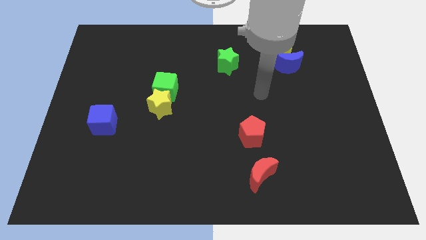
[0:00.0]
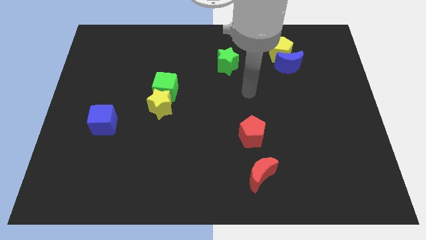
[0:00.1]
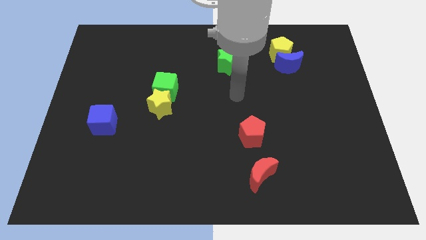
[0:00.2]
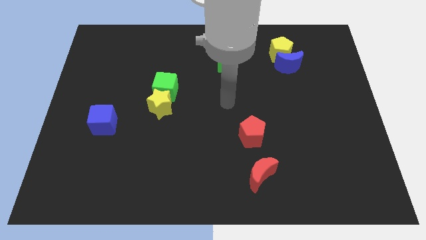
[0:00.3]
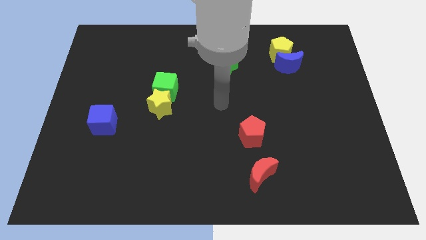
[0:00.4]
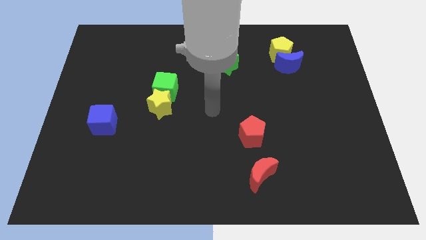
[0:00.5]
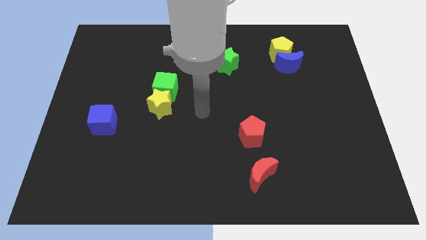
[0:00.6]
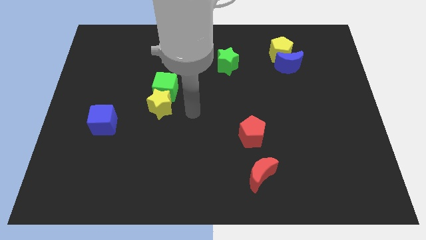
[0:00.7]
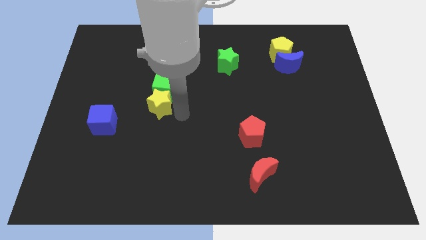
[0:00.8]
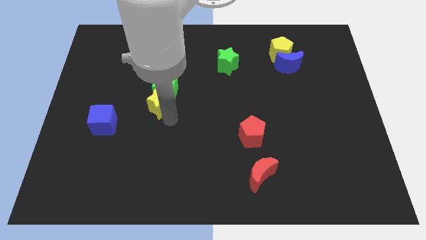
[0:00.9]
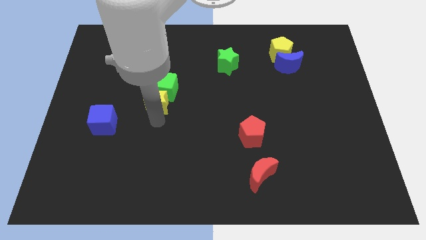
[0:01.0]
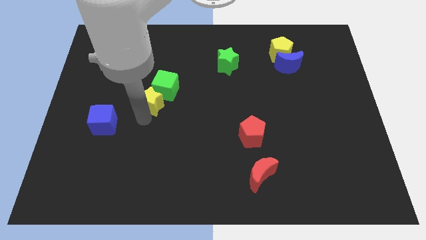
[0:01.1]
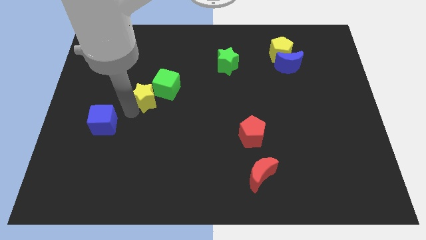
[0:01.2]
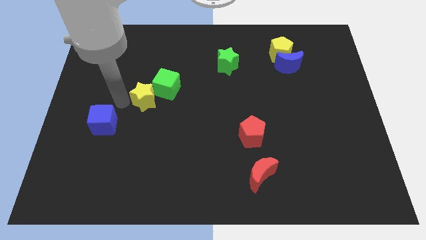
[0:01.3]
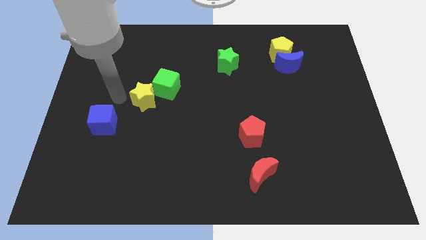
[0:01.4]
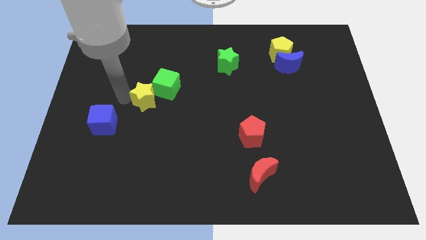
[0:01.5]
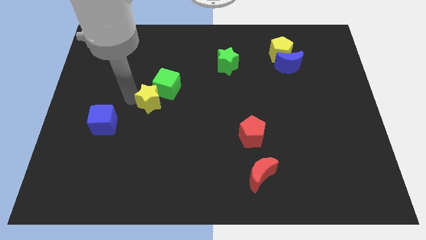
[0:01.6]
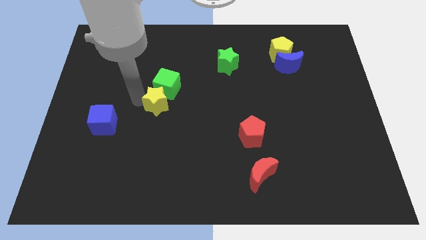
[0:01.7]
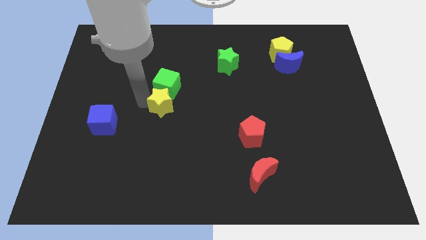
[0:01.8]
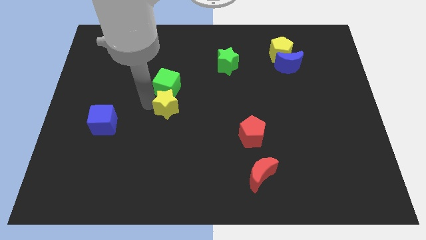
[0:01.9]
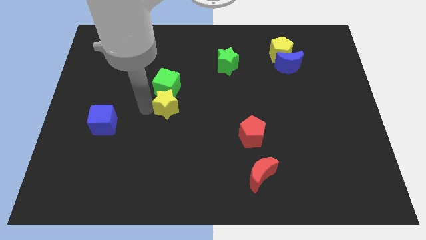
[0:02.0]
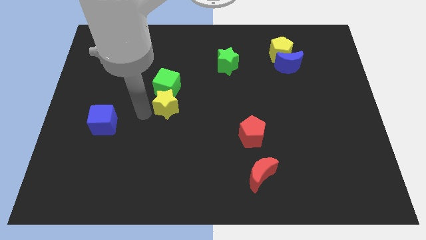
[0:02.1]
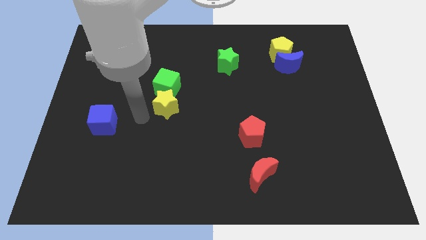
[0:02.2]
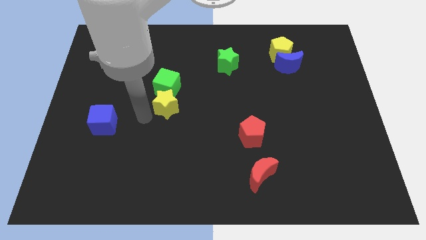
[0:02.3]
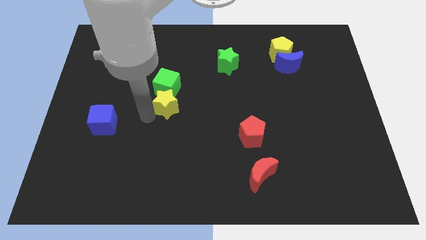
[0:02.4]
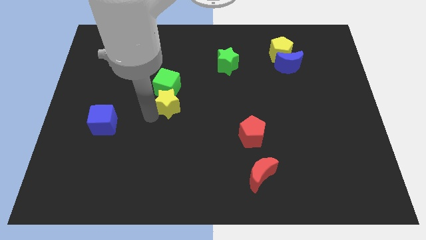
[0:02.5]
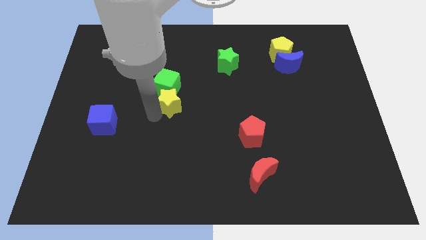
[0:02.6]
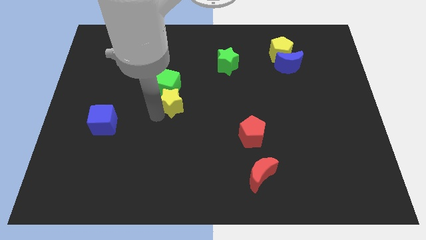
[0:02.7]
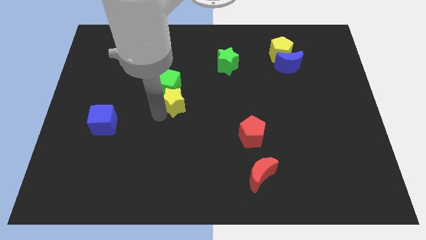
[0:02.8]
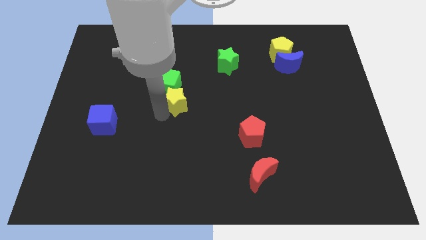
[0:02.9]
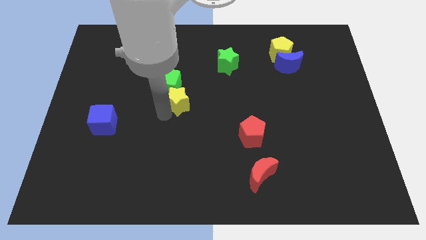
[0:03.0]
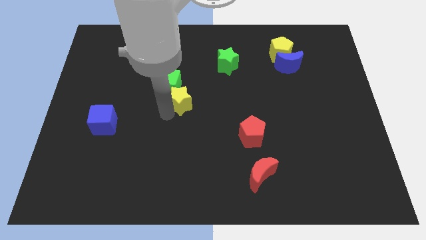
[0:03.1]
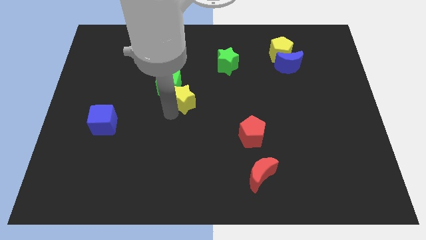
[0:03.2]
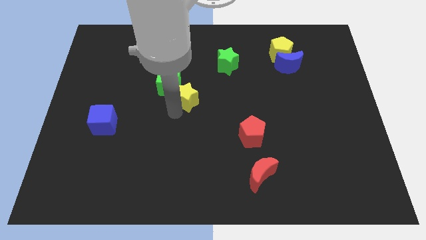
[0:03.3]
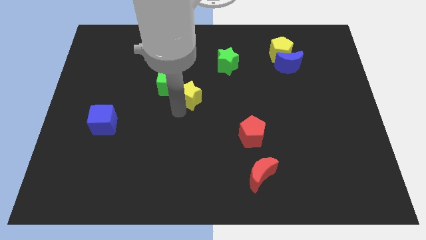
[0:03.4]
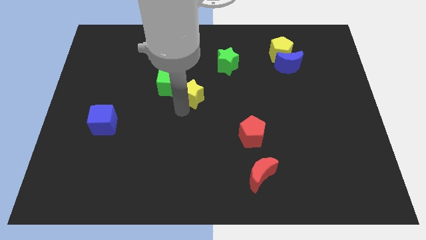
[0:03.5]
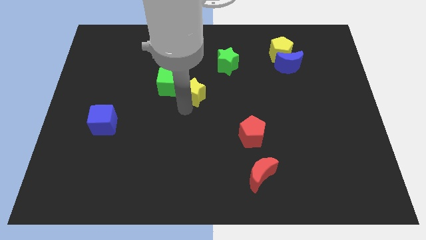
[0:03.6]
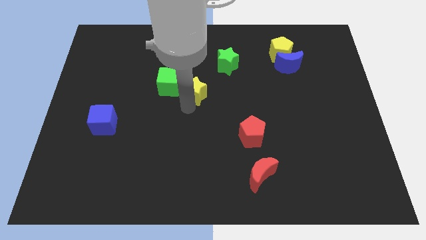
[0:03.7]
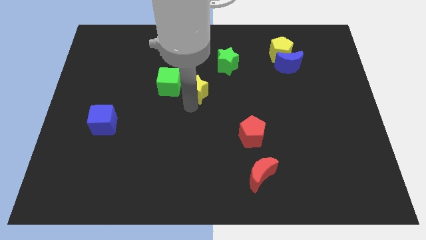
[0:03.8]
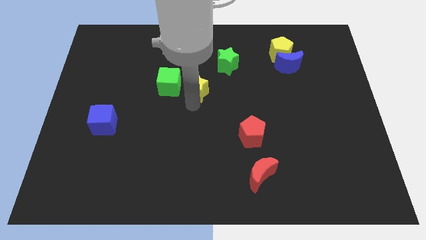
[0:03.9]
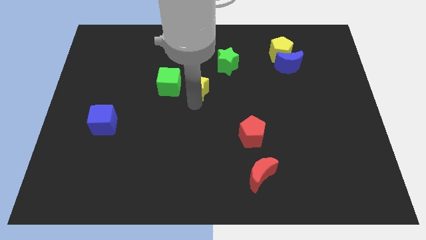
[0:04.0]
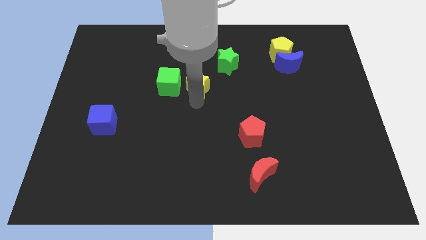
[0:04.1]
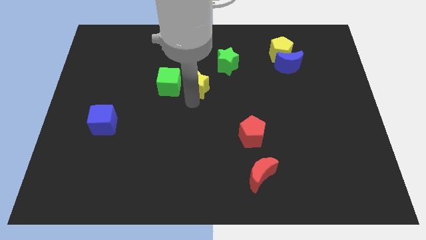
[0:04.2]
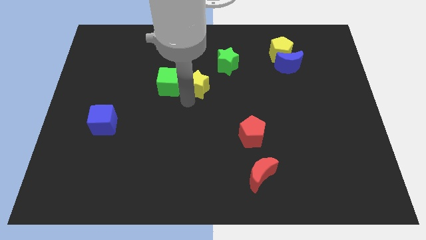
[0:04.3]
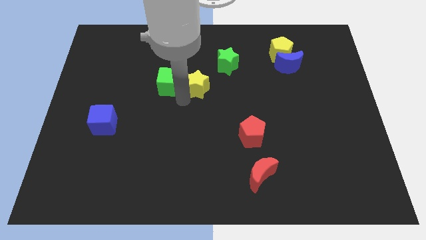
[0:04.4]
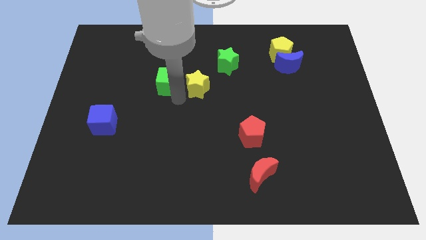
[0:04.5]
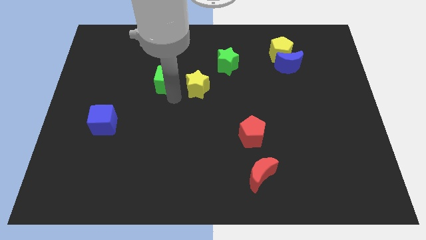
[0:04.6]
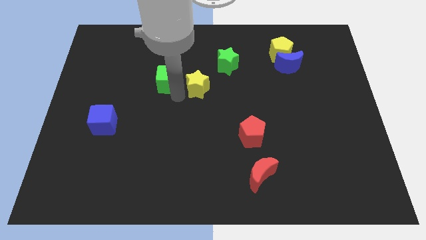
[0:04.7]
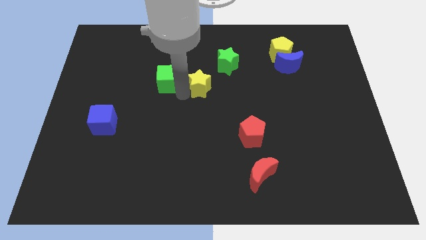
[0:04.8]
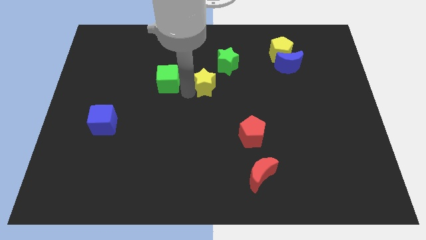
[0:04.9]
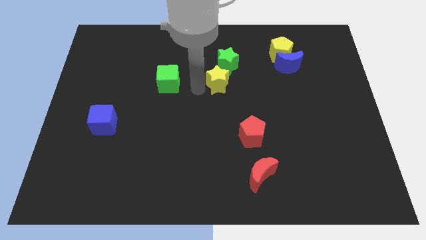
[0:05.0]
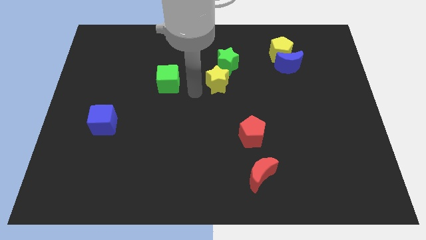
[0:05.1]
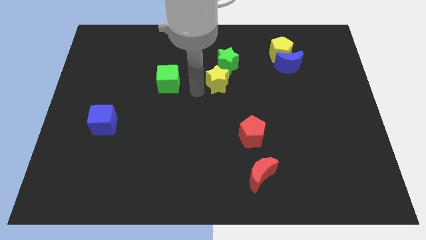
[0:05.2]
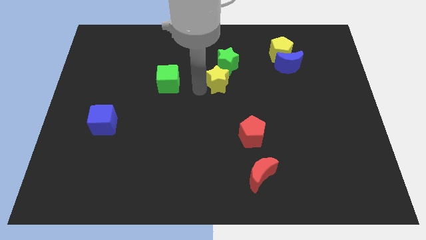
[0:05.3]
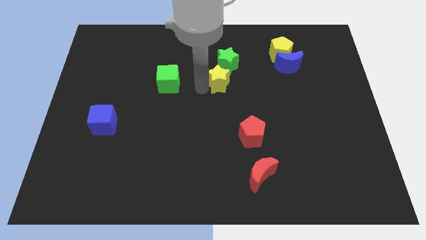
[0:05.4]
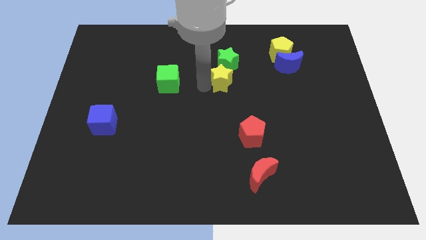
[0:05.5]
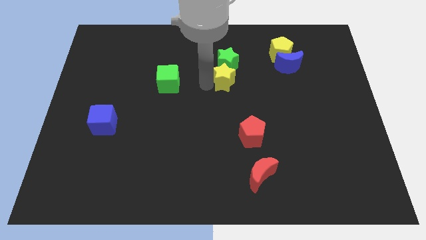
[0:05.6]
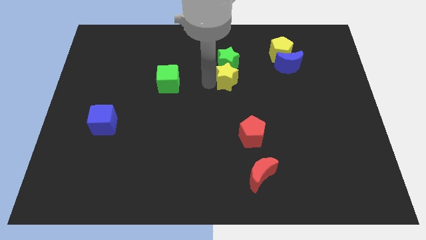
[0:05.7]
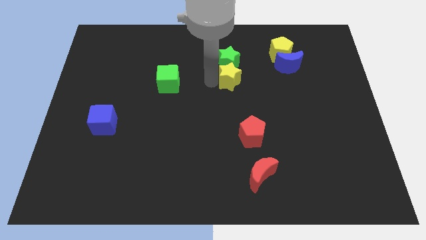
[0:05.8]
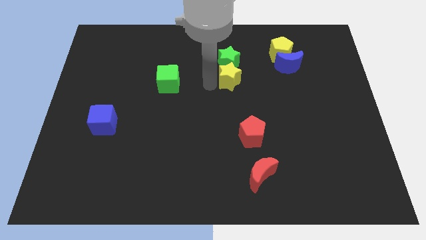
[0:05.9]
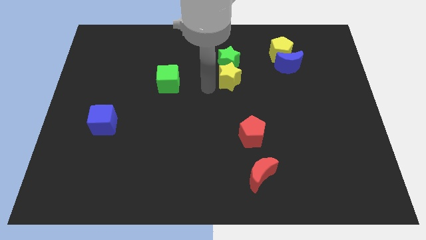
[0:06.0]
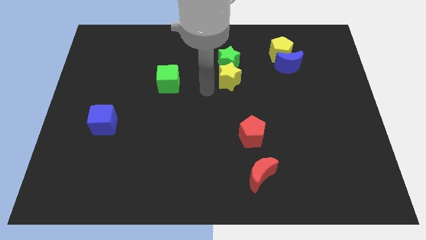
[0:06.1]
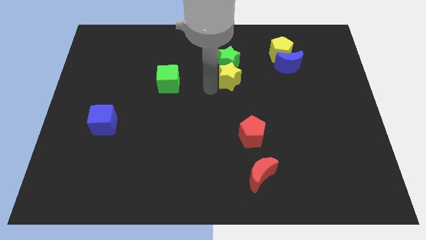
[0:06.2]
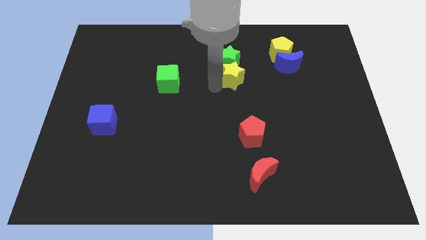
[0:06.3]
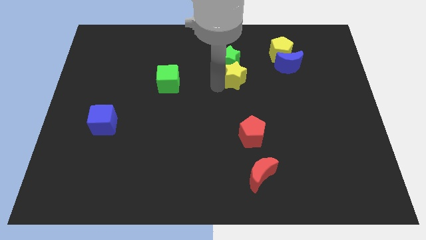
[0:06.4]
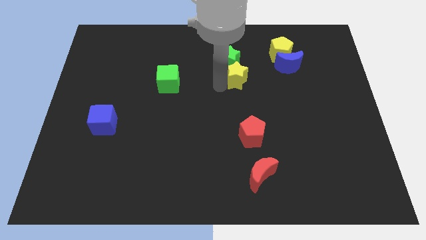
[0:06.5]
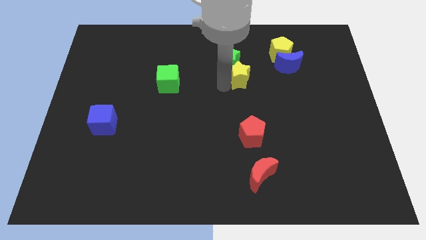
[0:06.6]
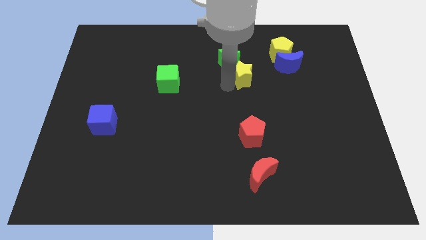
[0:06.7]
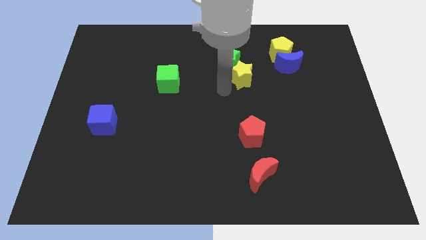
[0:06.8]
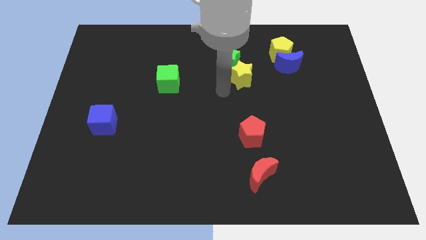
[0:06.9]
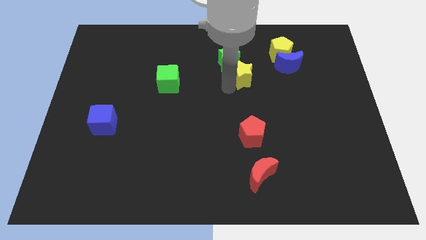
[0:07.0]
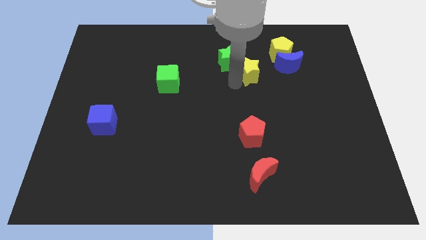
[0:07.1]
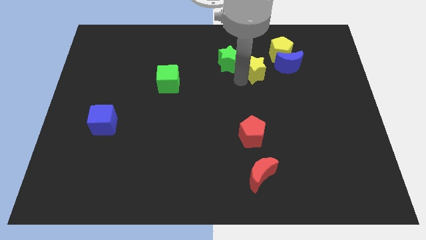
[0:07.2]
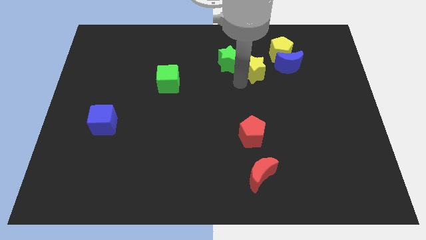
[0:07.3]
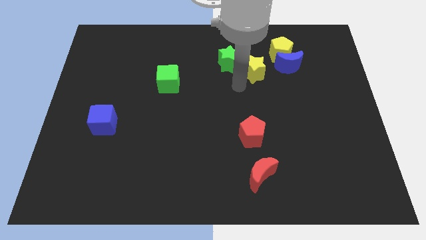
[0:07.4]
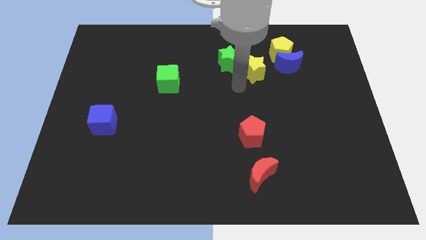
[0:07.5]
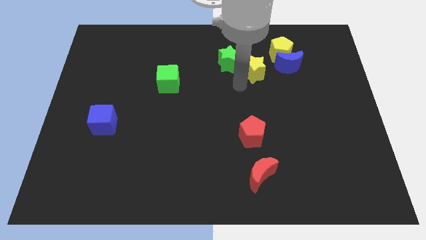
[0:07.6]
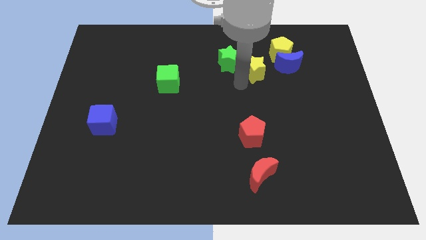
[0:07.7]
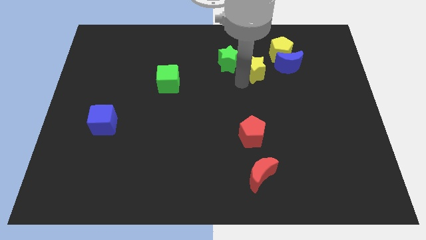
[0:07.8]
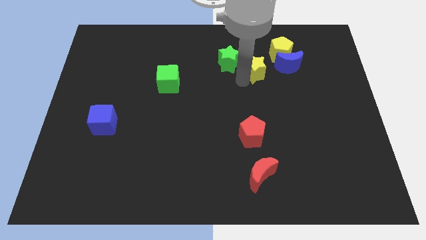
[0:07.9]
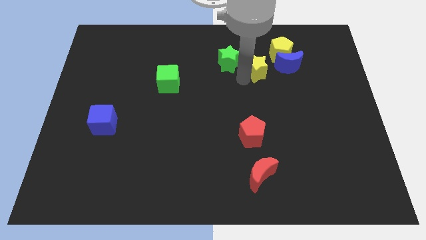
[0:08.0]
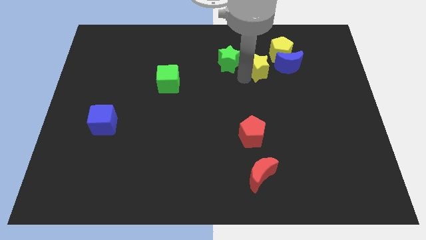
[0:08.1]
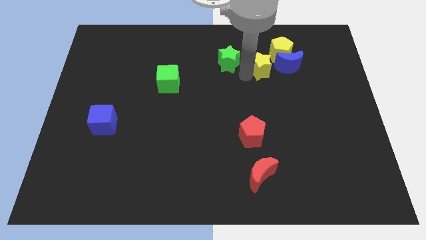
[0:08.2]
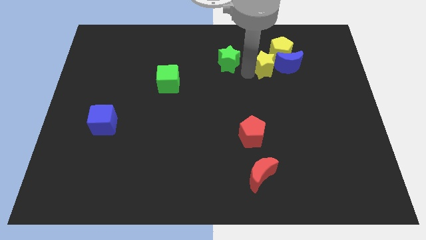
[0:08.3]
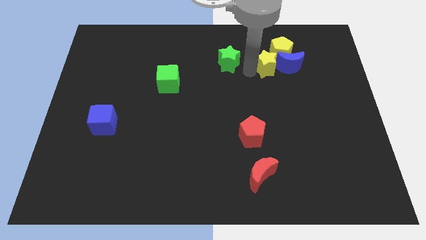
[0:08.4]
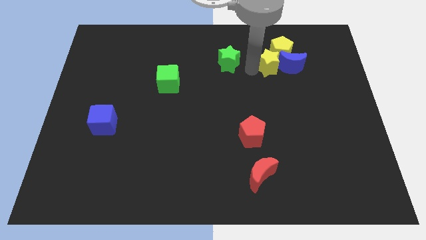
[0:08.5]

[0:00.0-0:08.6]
put the yellow star close to the yellow pentagon
